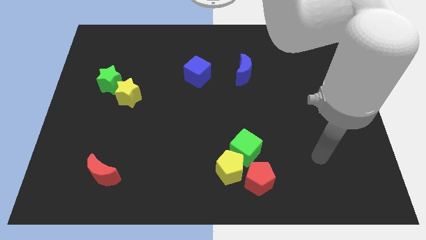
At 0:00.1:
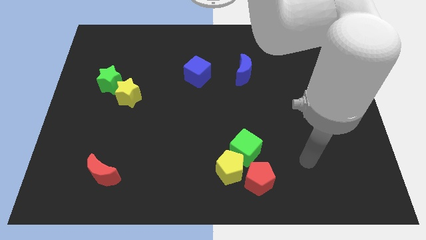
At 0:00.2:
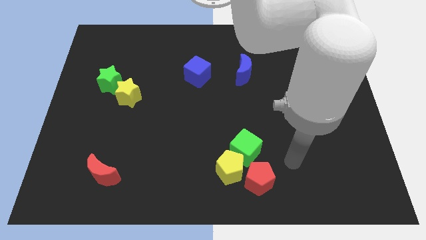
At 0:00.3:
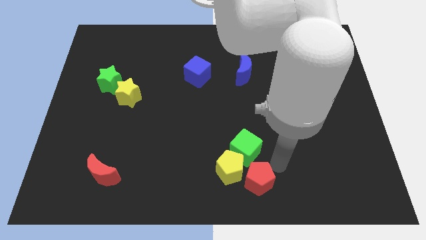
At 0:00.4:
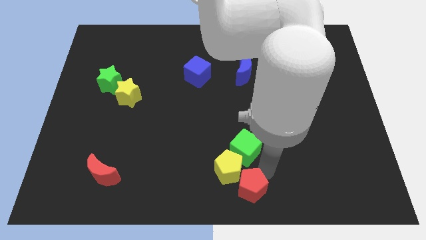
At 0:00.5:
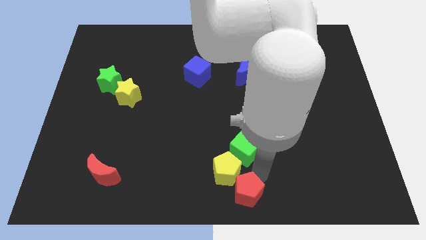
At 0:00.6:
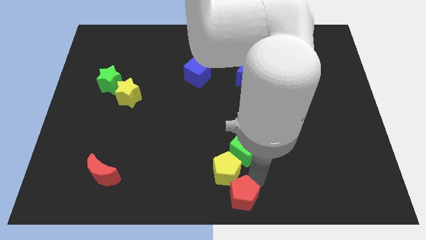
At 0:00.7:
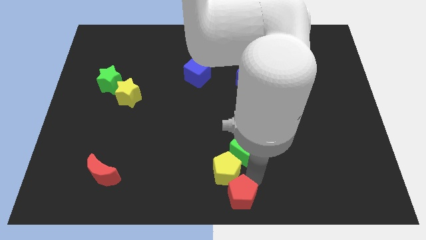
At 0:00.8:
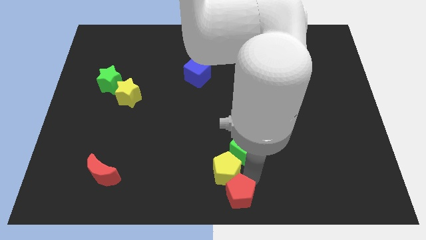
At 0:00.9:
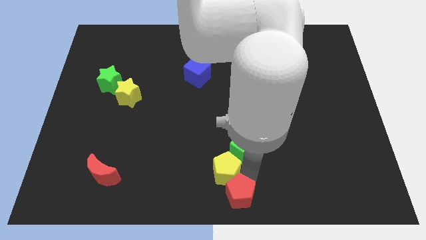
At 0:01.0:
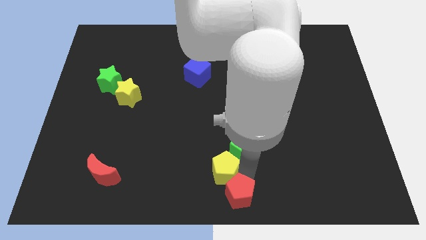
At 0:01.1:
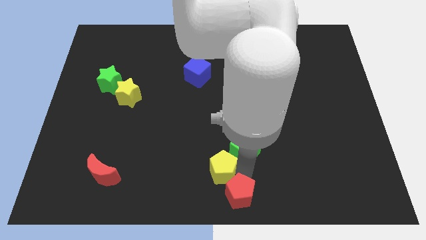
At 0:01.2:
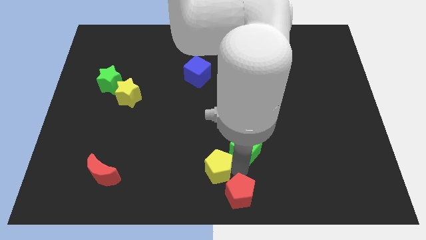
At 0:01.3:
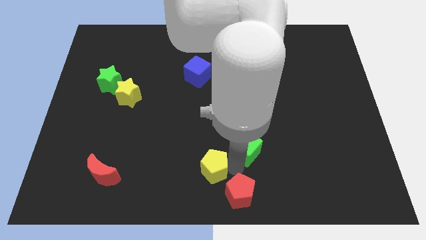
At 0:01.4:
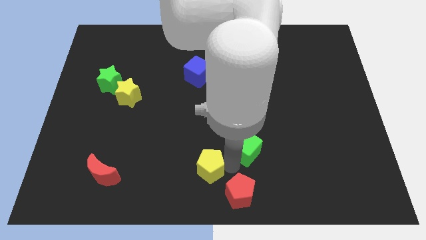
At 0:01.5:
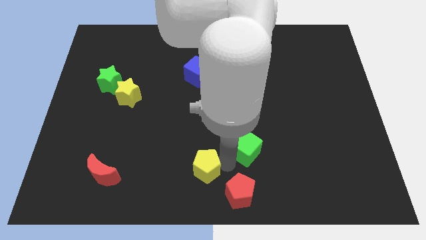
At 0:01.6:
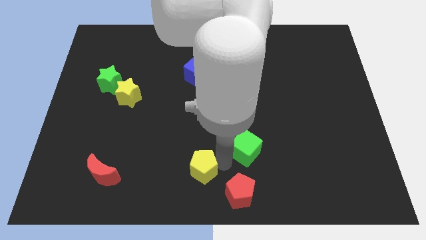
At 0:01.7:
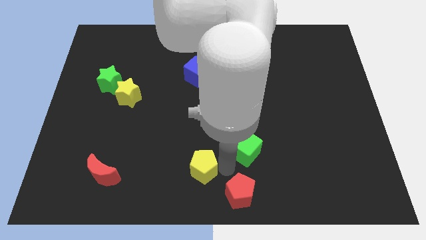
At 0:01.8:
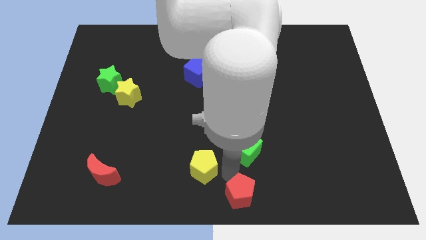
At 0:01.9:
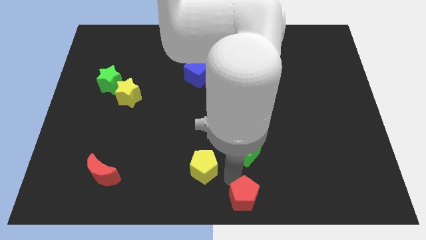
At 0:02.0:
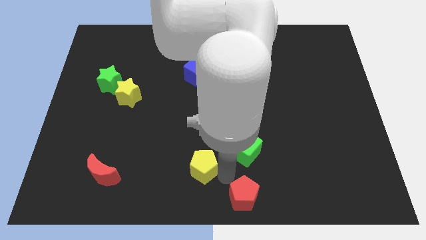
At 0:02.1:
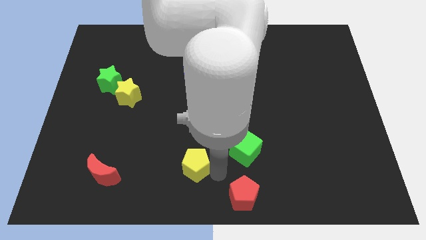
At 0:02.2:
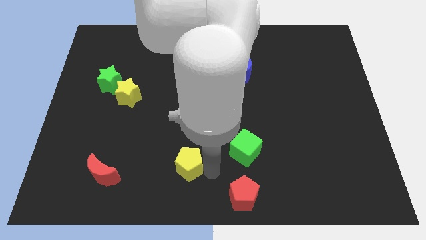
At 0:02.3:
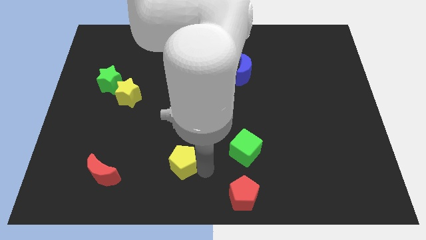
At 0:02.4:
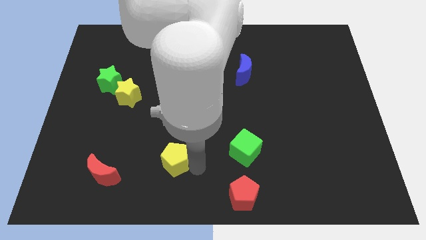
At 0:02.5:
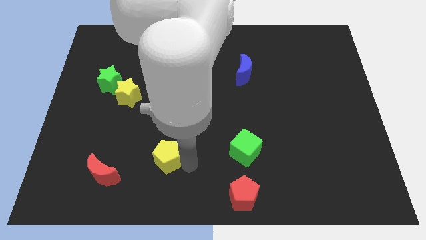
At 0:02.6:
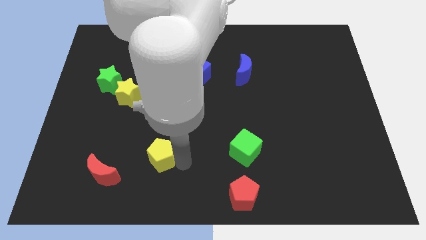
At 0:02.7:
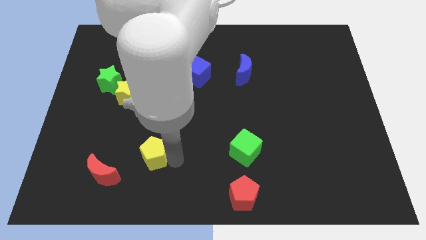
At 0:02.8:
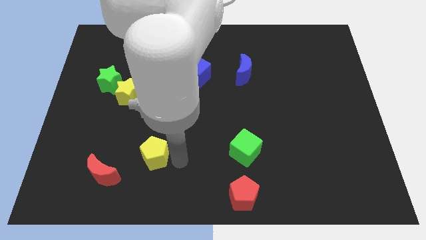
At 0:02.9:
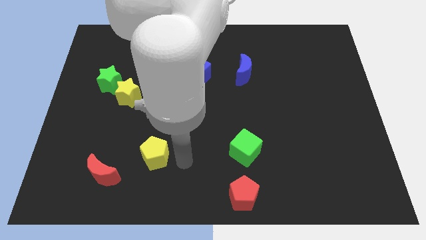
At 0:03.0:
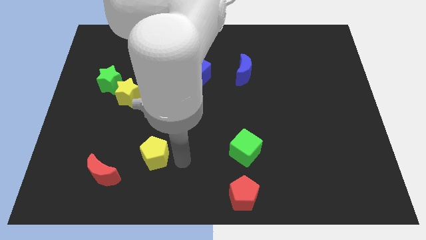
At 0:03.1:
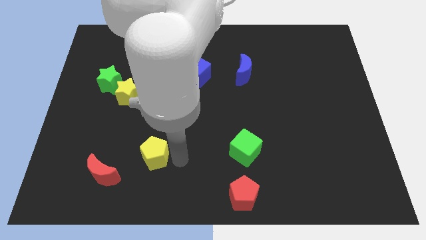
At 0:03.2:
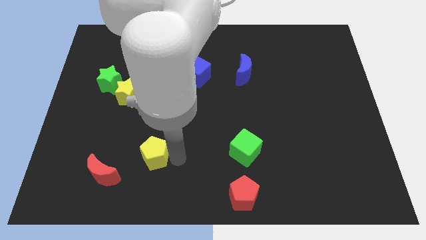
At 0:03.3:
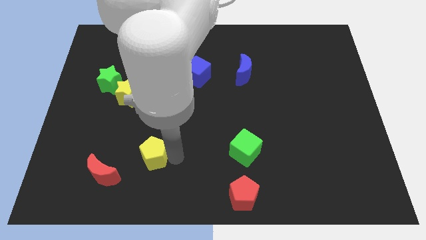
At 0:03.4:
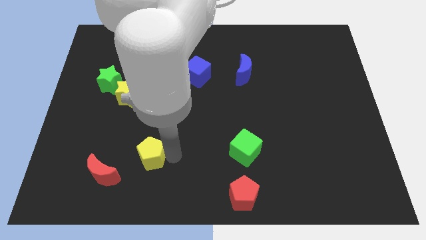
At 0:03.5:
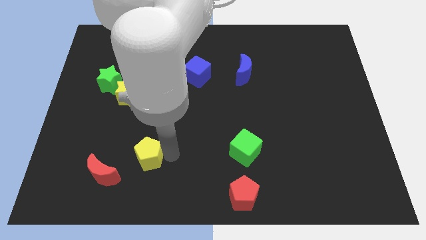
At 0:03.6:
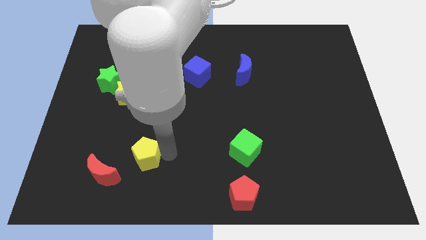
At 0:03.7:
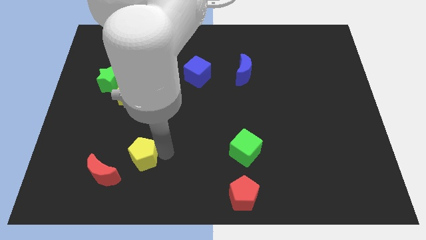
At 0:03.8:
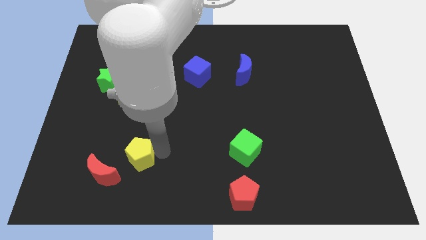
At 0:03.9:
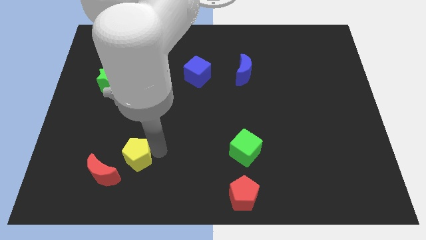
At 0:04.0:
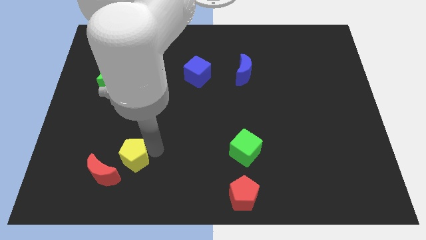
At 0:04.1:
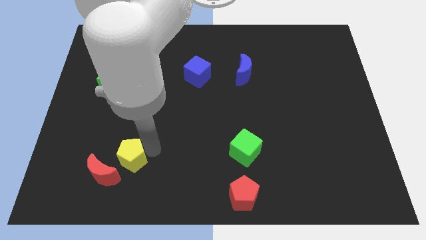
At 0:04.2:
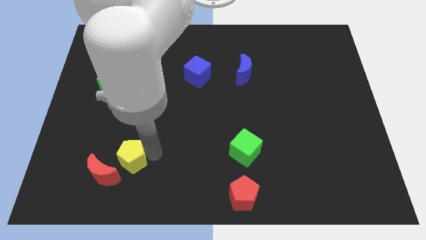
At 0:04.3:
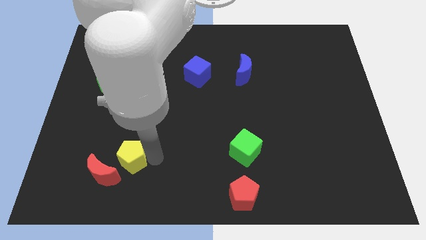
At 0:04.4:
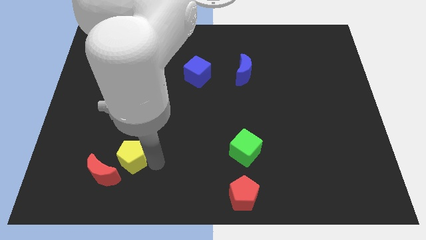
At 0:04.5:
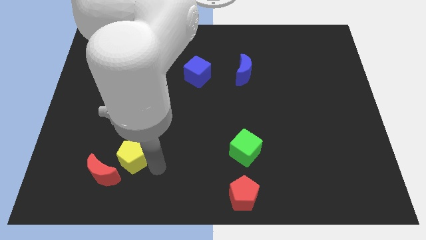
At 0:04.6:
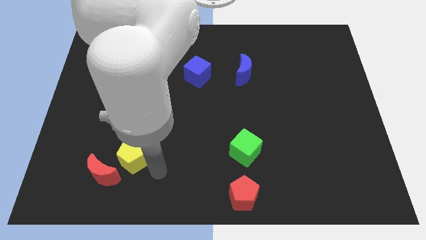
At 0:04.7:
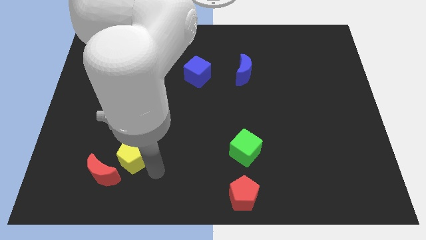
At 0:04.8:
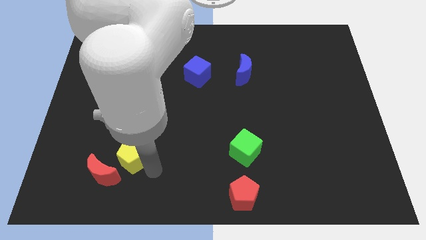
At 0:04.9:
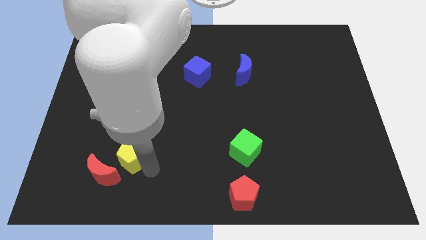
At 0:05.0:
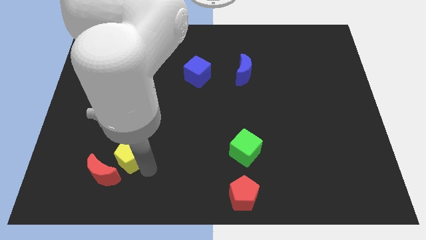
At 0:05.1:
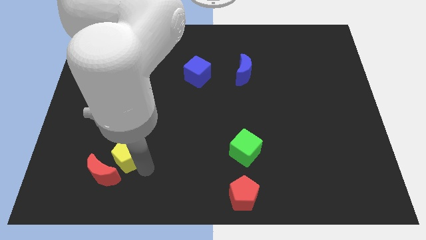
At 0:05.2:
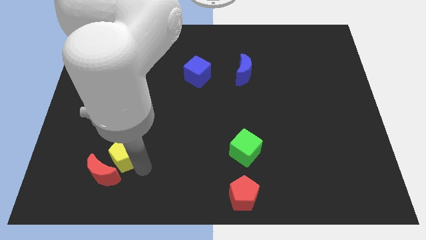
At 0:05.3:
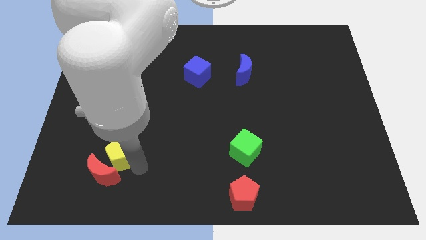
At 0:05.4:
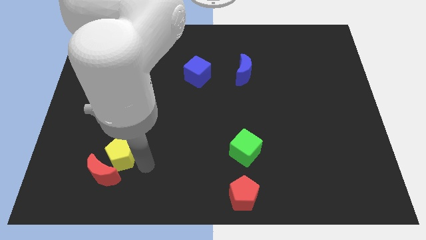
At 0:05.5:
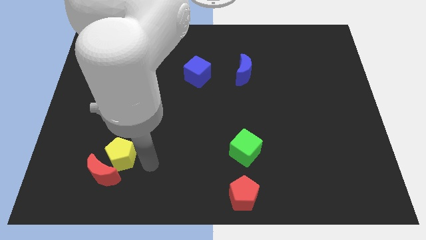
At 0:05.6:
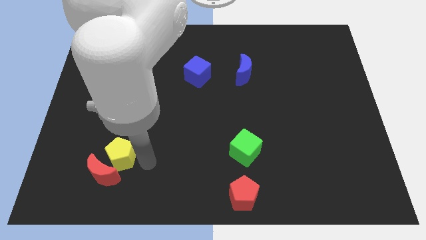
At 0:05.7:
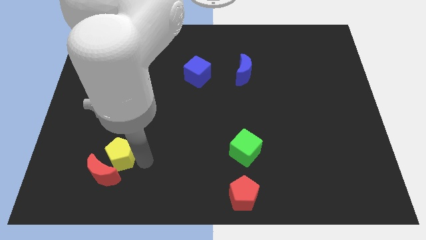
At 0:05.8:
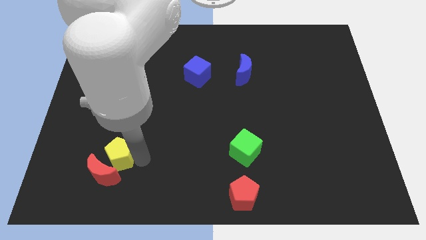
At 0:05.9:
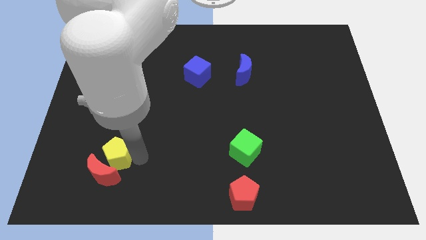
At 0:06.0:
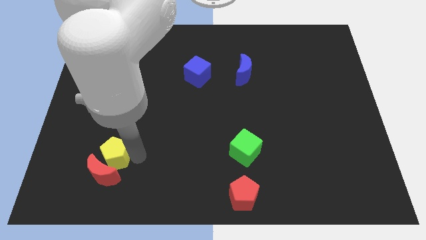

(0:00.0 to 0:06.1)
slide the yellow pentagon to the top left of the red moon

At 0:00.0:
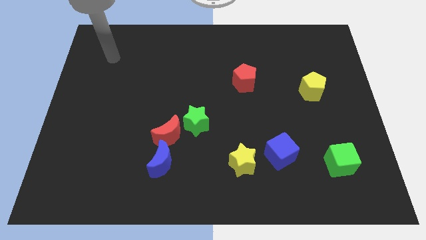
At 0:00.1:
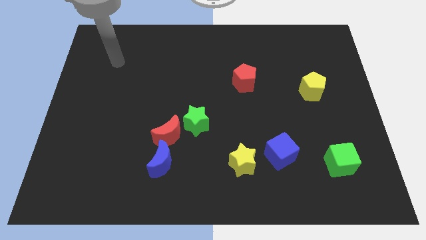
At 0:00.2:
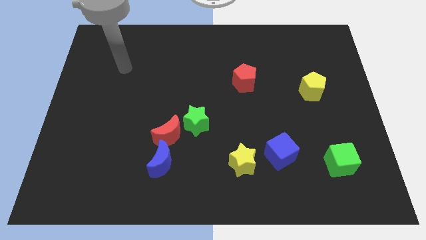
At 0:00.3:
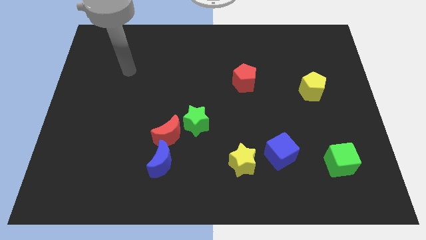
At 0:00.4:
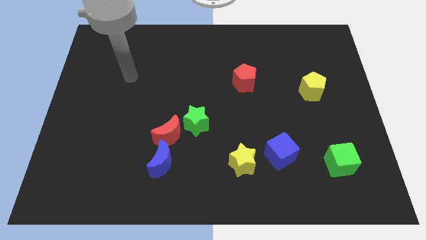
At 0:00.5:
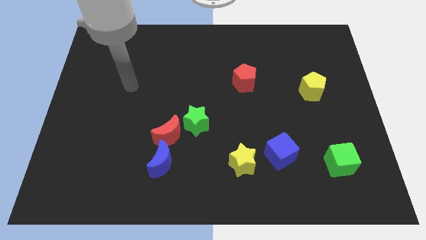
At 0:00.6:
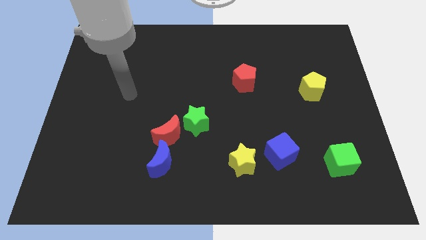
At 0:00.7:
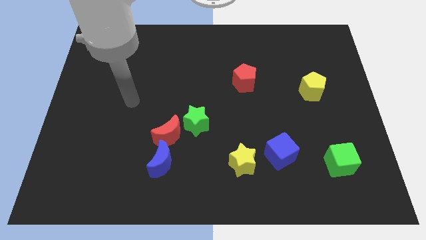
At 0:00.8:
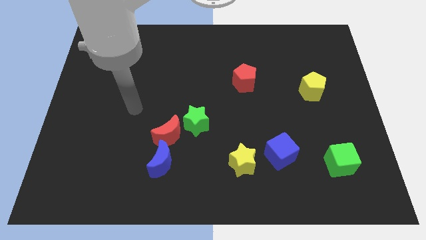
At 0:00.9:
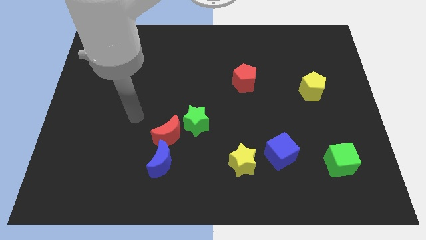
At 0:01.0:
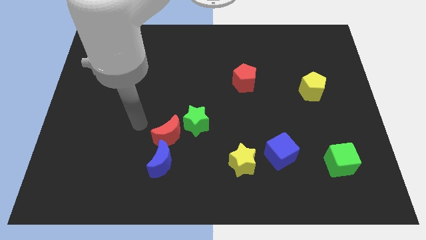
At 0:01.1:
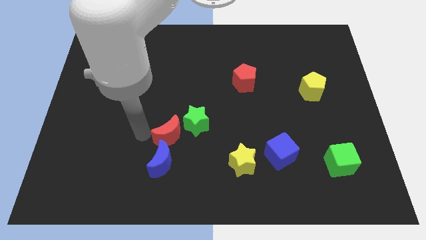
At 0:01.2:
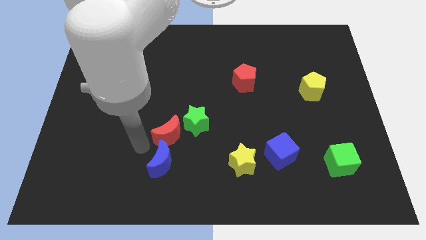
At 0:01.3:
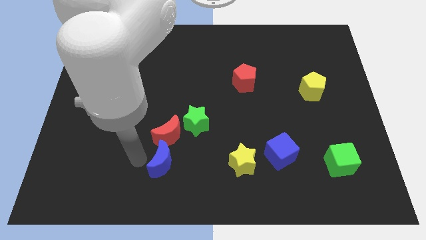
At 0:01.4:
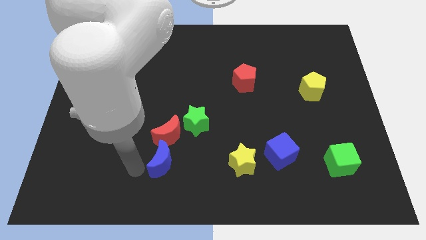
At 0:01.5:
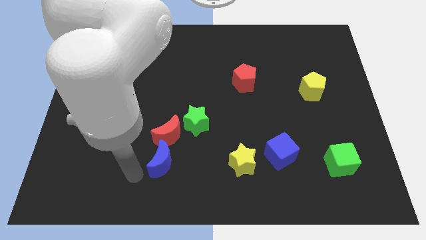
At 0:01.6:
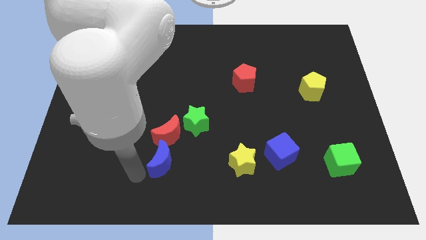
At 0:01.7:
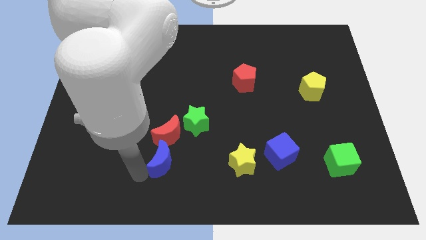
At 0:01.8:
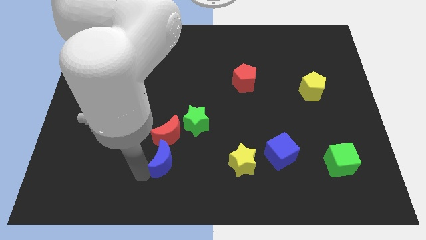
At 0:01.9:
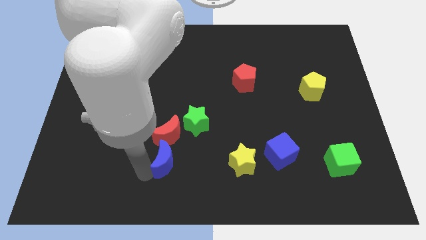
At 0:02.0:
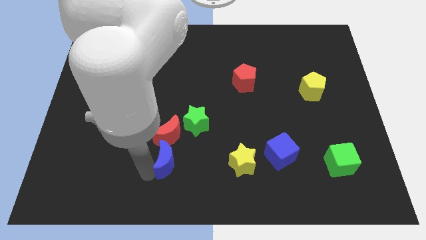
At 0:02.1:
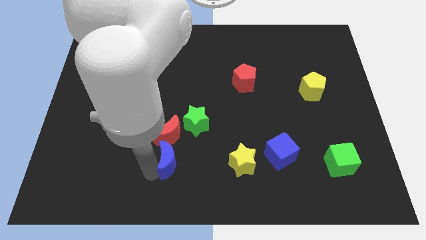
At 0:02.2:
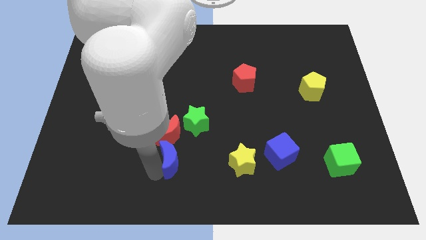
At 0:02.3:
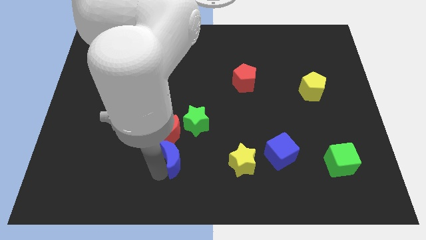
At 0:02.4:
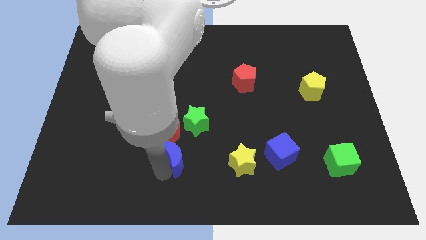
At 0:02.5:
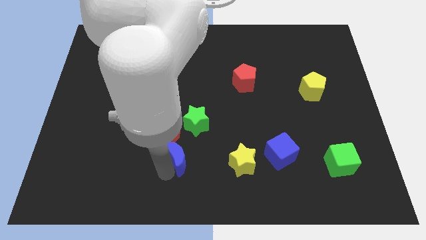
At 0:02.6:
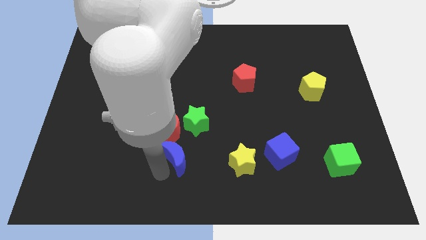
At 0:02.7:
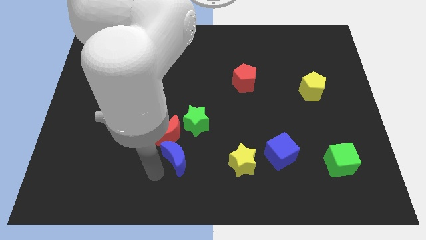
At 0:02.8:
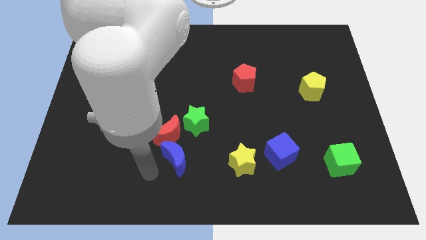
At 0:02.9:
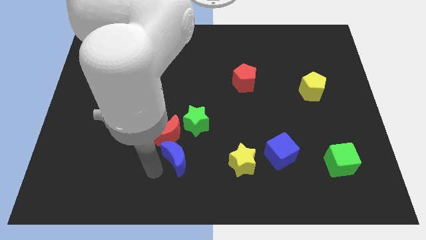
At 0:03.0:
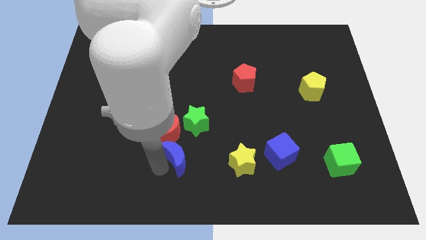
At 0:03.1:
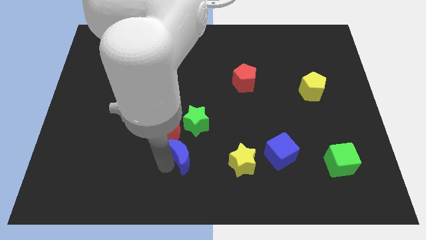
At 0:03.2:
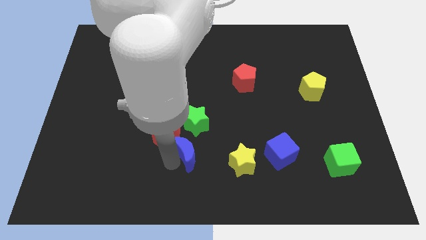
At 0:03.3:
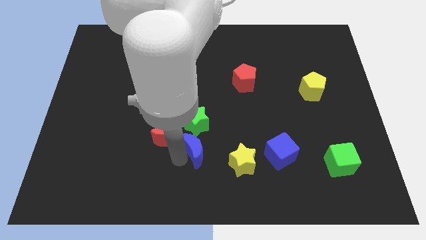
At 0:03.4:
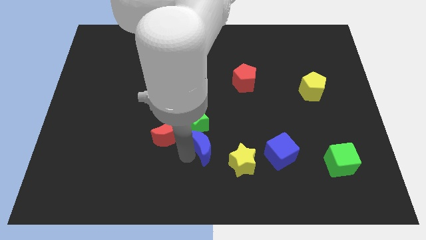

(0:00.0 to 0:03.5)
move the blue moon diagonally up and to the left of the yellow star
